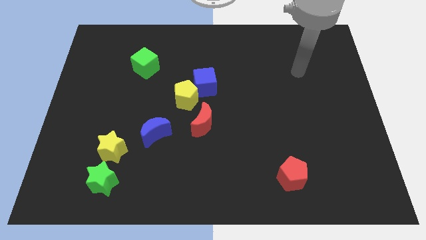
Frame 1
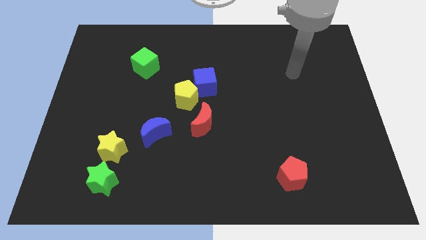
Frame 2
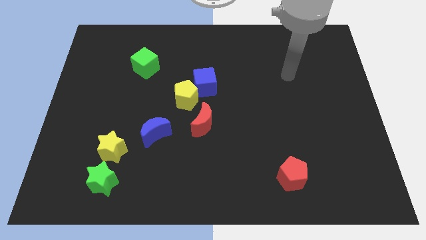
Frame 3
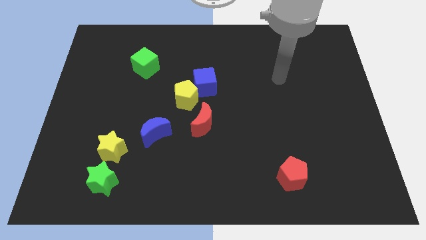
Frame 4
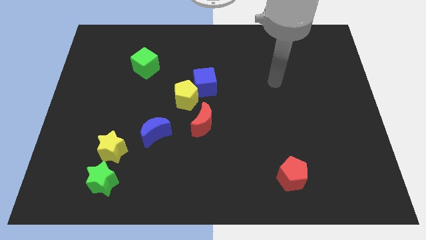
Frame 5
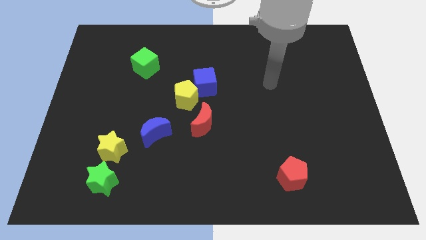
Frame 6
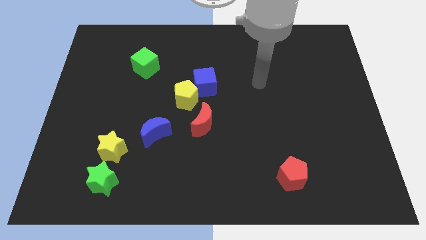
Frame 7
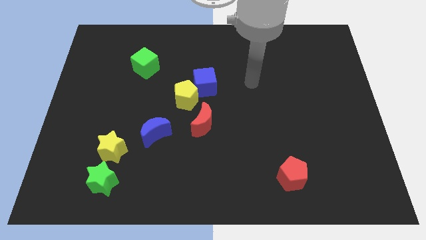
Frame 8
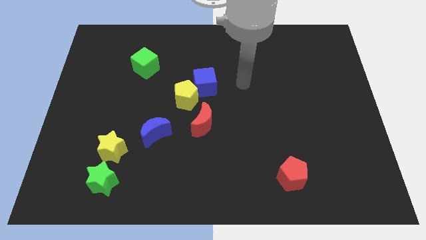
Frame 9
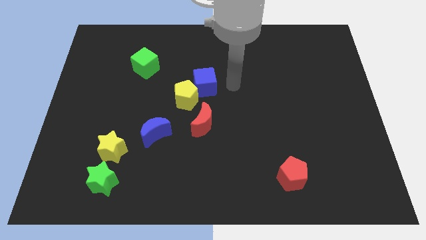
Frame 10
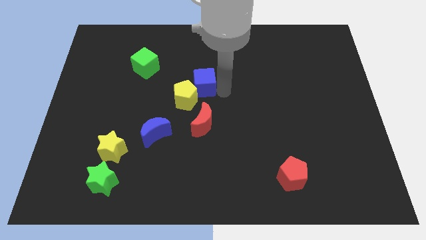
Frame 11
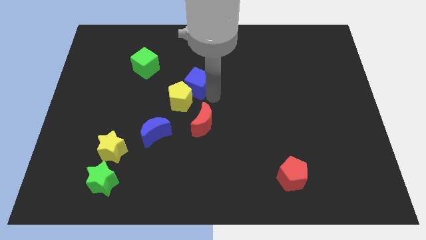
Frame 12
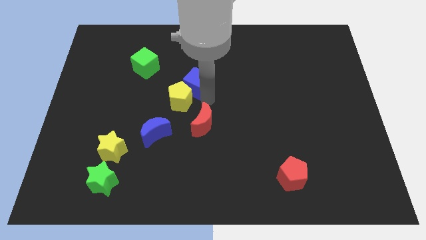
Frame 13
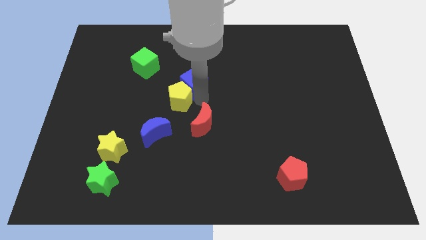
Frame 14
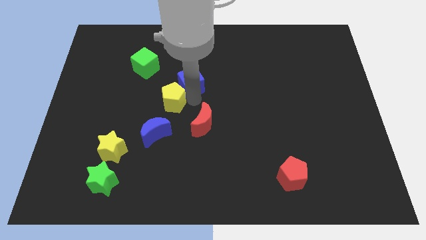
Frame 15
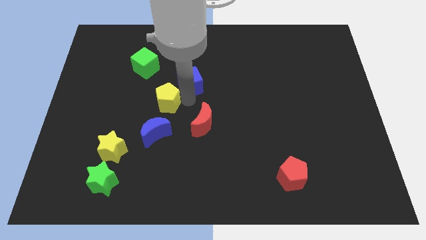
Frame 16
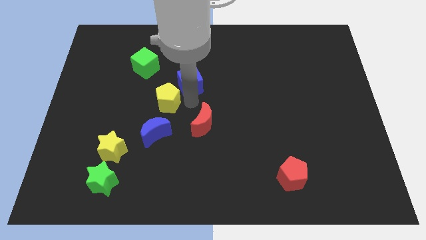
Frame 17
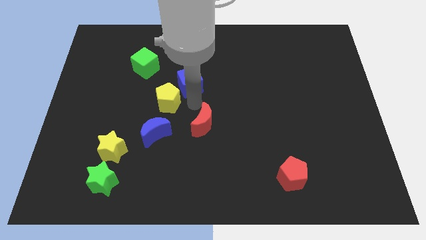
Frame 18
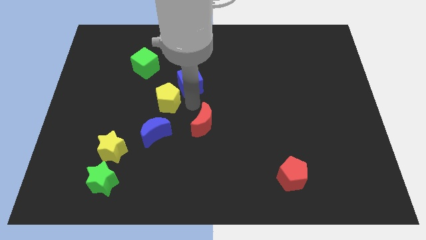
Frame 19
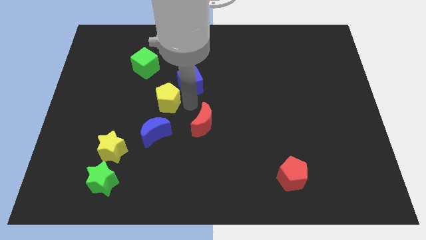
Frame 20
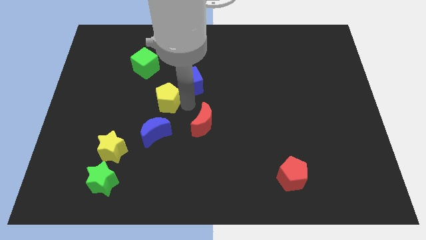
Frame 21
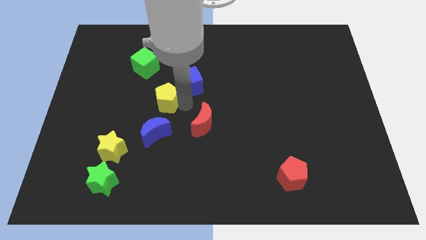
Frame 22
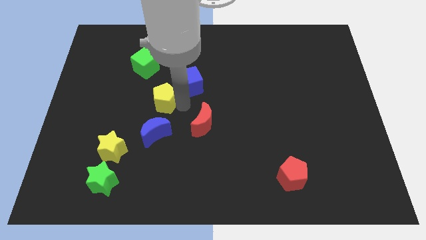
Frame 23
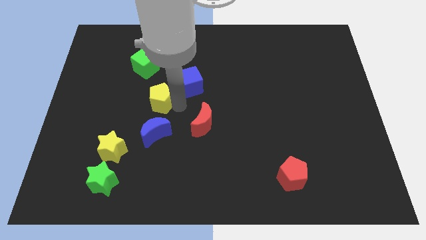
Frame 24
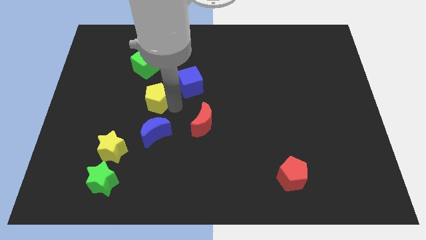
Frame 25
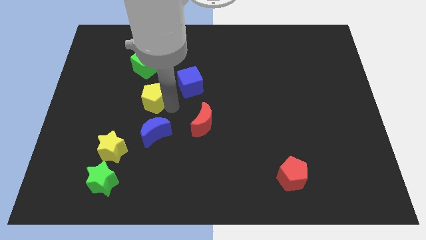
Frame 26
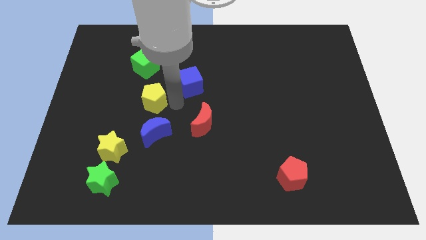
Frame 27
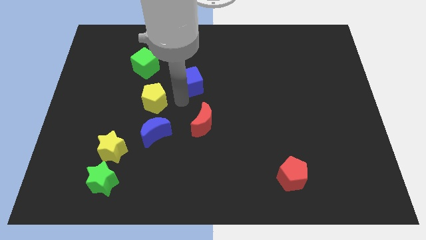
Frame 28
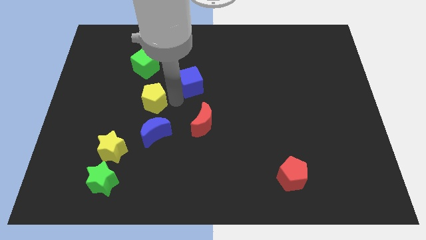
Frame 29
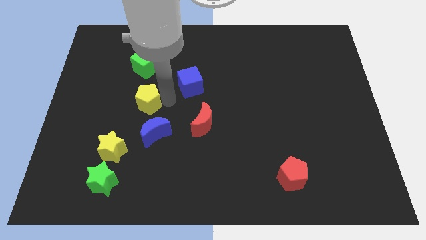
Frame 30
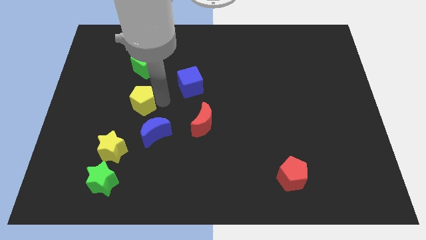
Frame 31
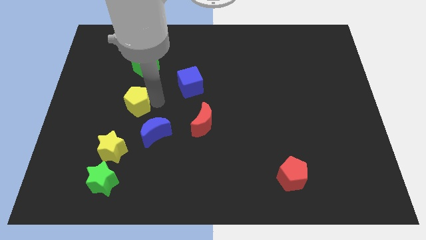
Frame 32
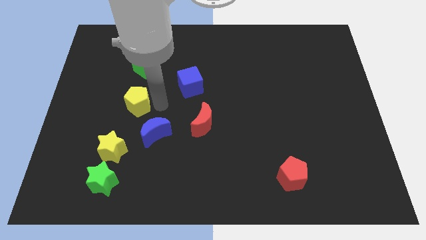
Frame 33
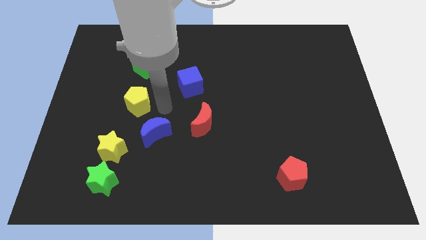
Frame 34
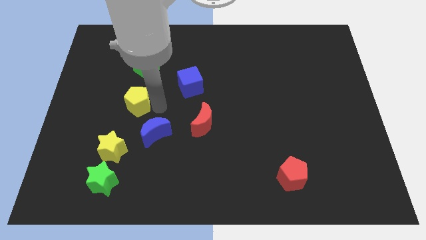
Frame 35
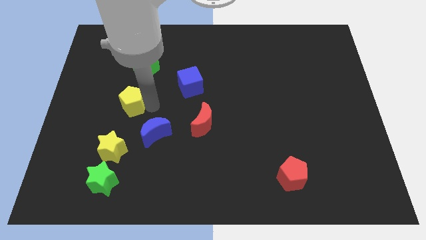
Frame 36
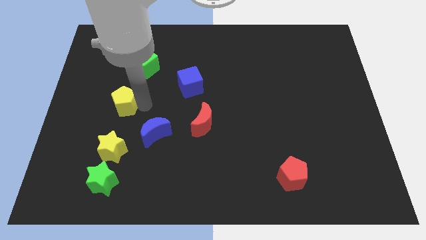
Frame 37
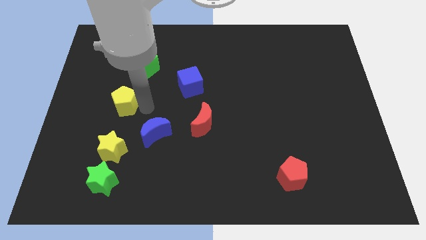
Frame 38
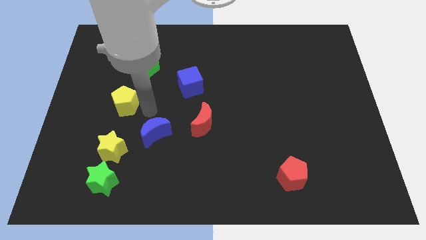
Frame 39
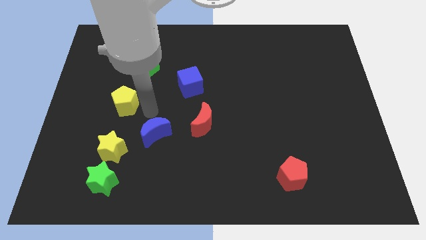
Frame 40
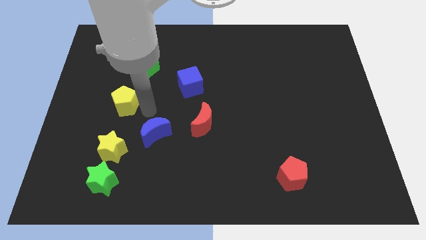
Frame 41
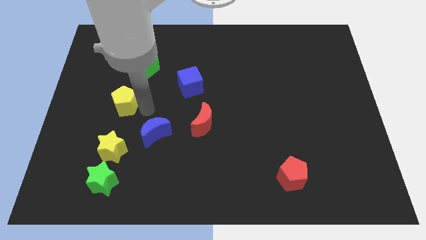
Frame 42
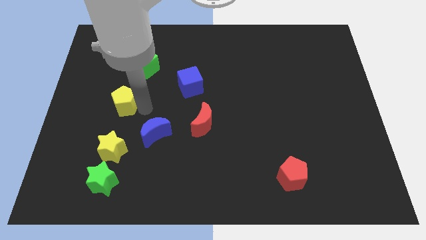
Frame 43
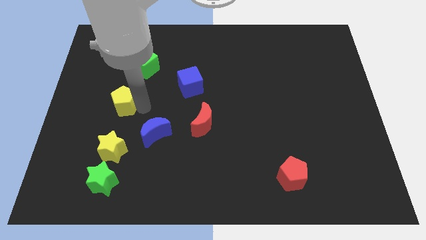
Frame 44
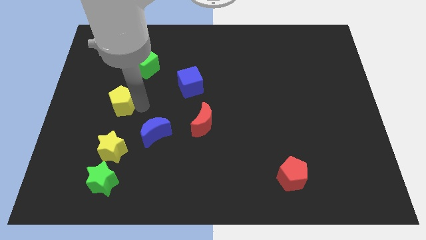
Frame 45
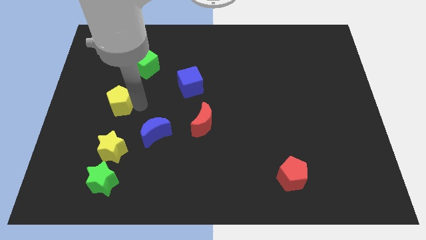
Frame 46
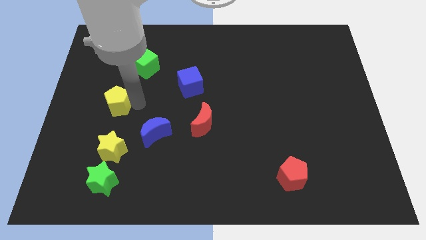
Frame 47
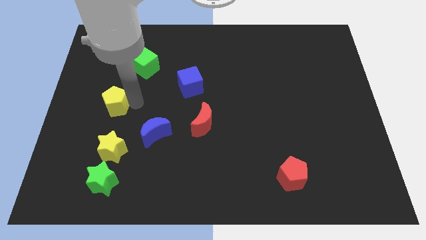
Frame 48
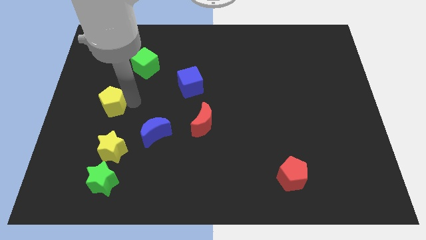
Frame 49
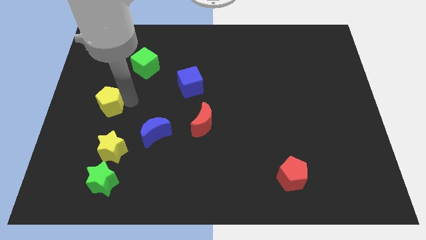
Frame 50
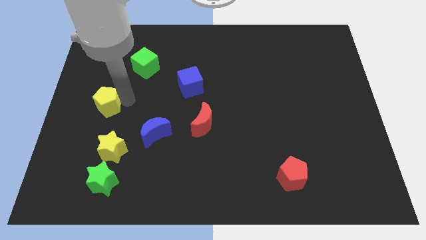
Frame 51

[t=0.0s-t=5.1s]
put the yellow pentagon to the left side
